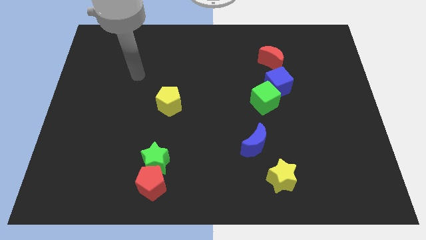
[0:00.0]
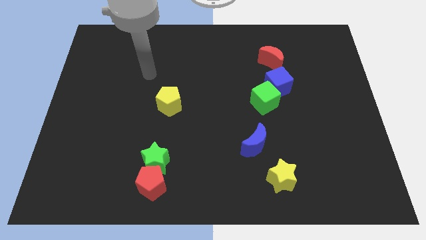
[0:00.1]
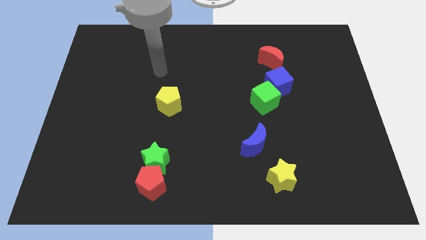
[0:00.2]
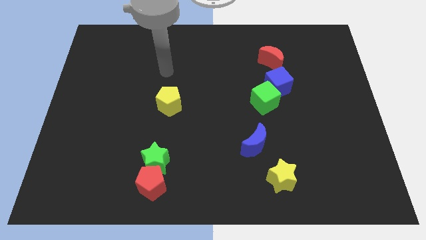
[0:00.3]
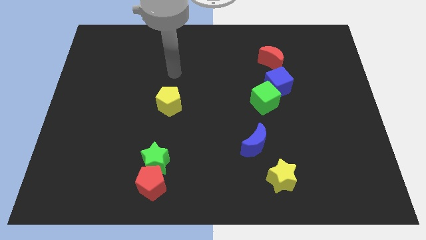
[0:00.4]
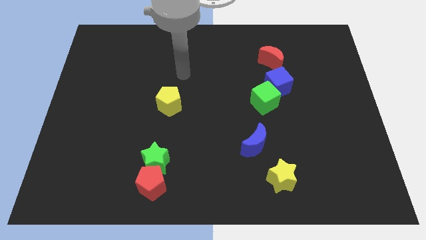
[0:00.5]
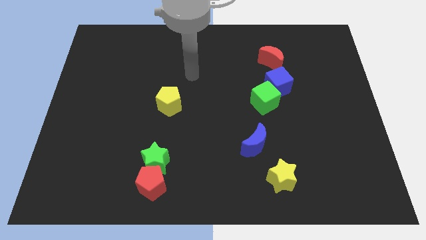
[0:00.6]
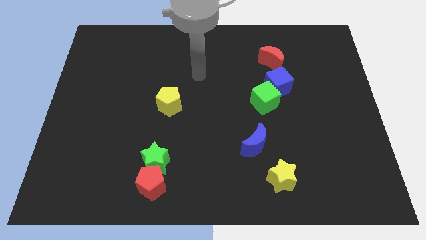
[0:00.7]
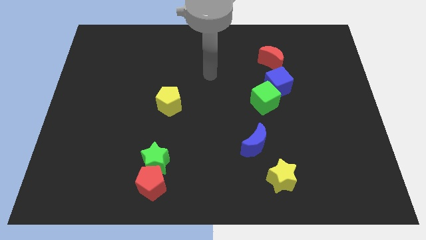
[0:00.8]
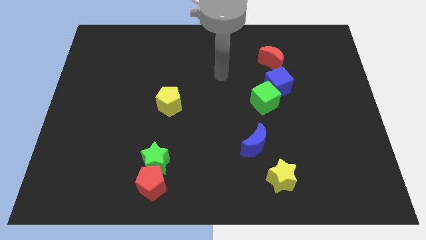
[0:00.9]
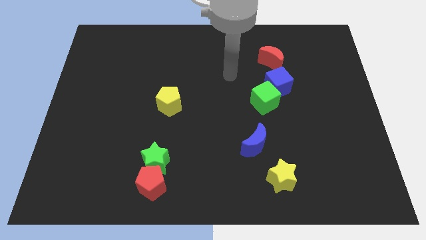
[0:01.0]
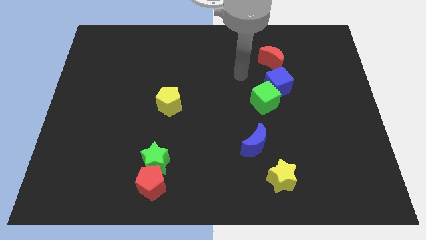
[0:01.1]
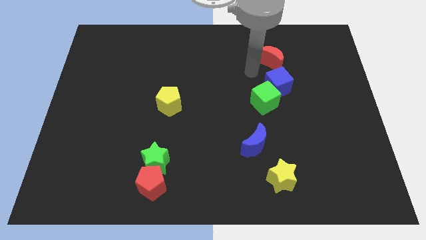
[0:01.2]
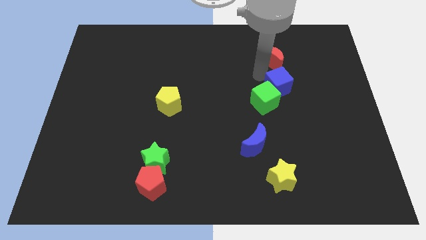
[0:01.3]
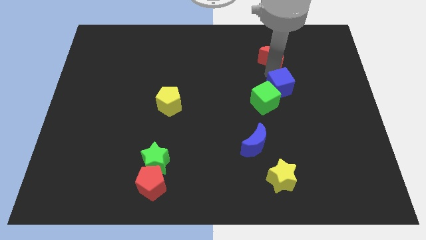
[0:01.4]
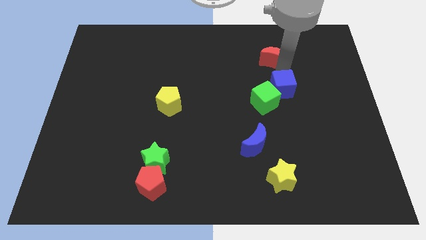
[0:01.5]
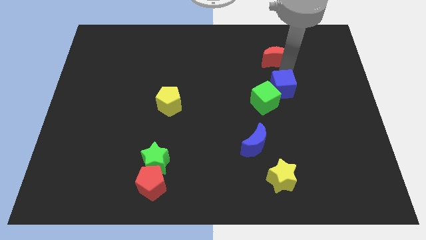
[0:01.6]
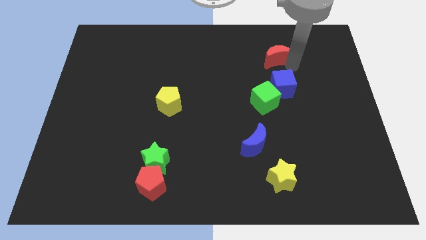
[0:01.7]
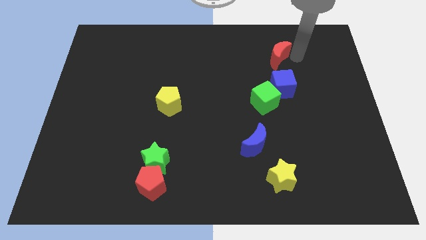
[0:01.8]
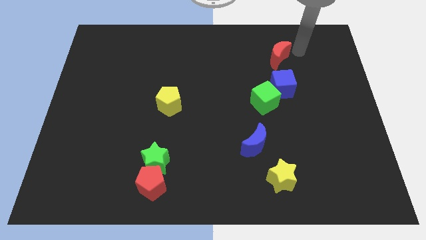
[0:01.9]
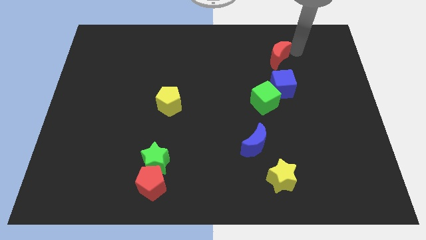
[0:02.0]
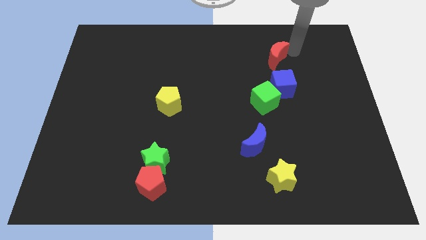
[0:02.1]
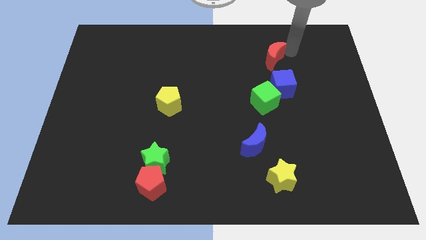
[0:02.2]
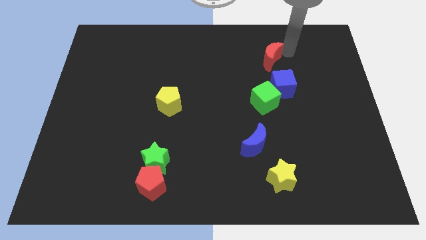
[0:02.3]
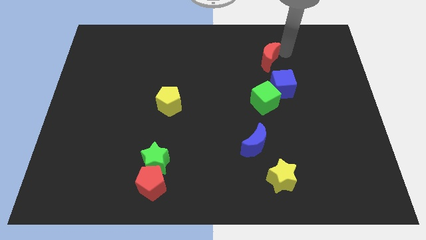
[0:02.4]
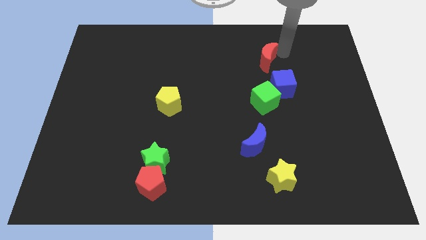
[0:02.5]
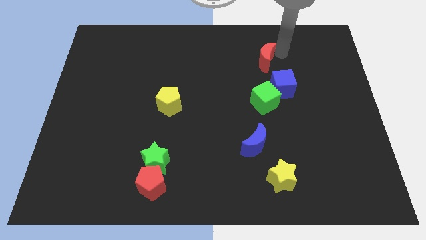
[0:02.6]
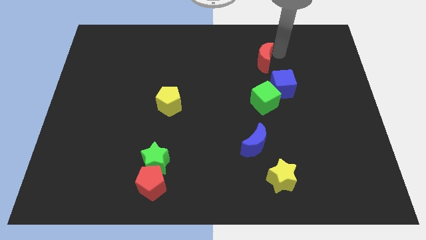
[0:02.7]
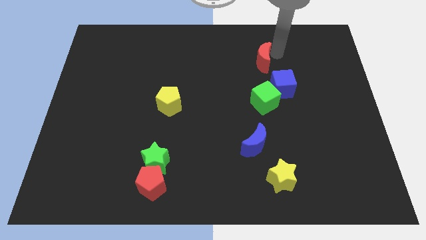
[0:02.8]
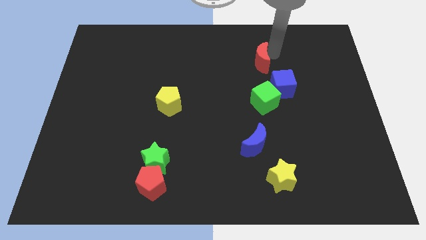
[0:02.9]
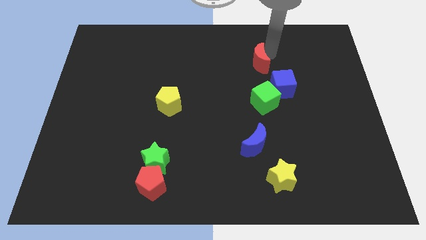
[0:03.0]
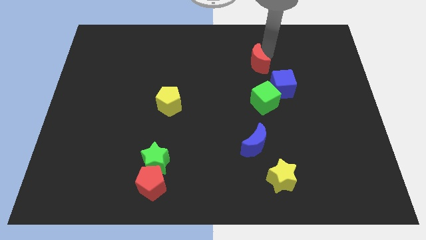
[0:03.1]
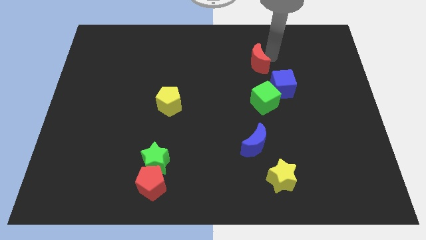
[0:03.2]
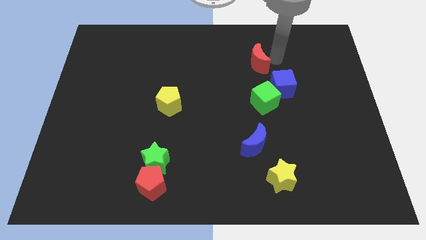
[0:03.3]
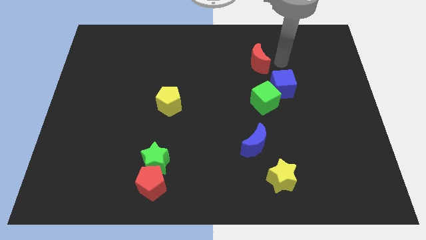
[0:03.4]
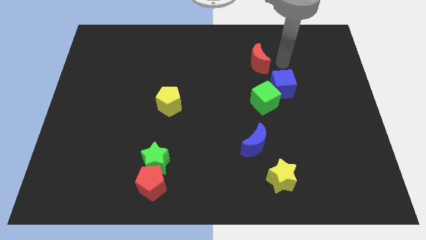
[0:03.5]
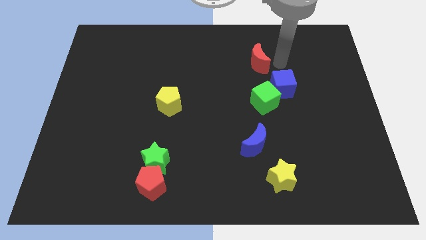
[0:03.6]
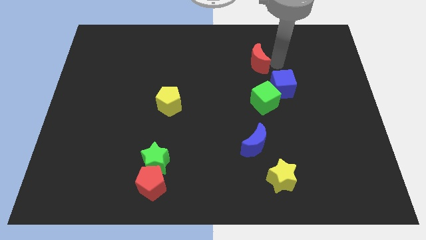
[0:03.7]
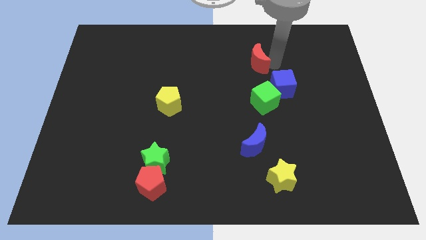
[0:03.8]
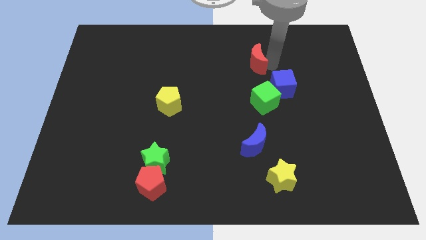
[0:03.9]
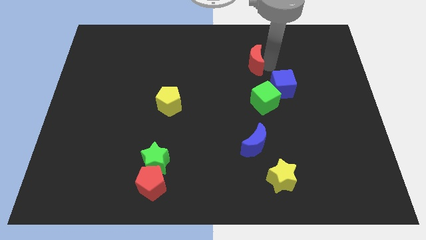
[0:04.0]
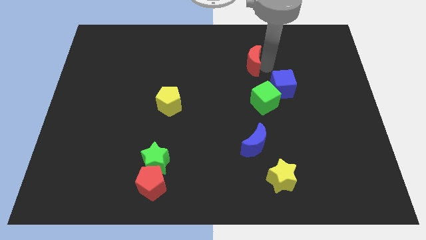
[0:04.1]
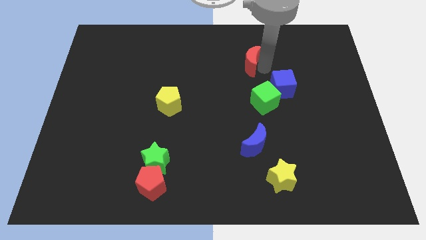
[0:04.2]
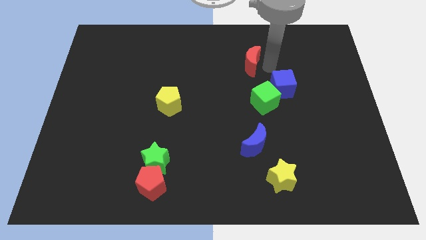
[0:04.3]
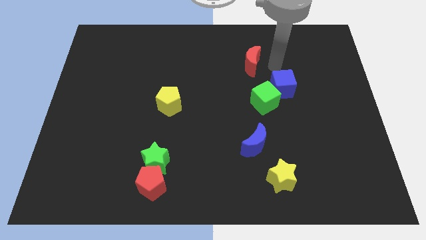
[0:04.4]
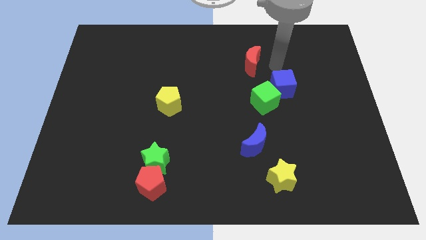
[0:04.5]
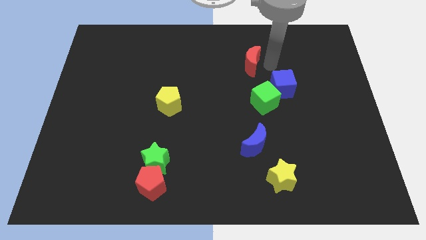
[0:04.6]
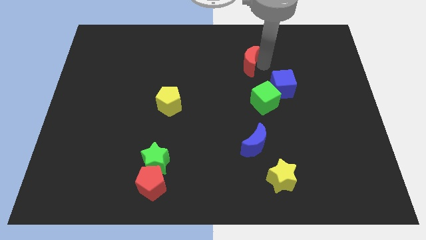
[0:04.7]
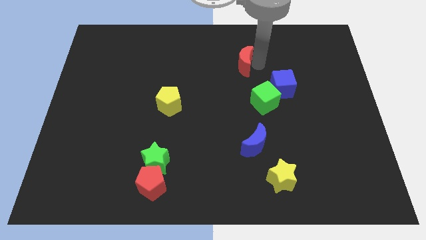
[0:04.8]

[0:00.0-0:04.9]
slightly push the red moon left

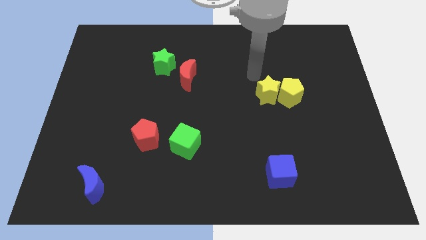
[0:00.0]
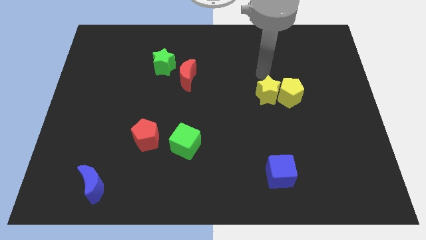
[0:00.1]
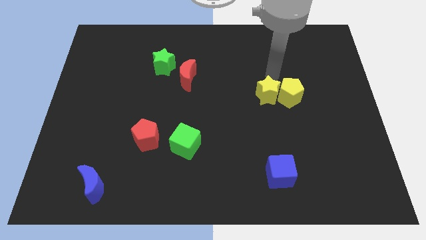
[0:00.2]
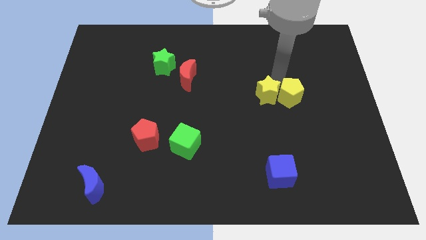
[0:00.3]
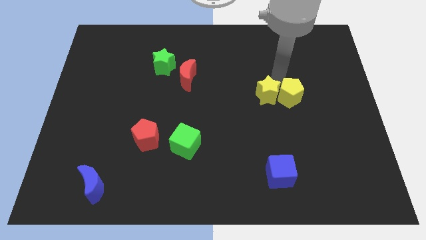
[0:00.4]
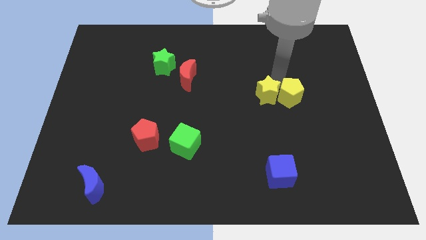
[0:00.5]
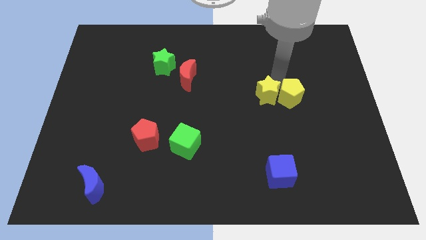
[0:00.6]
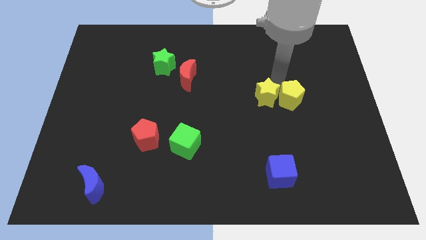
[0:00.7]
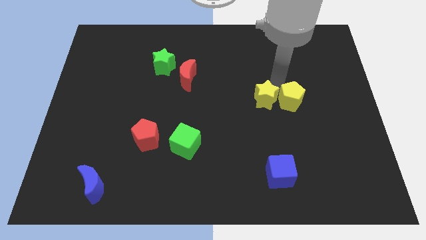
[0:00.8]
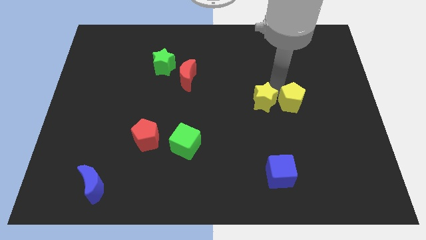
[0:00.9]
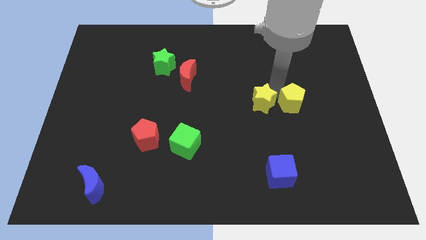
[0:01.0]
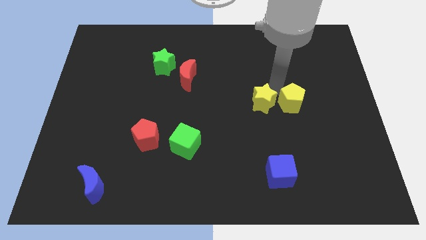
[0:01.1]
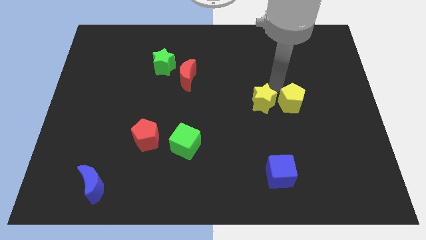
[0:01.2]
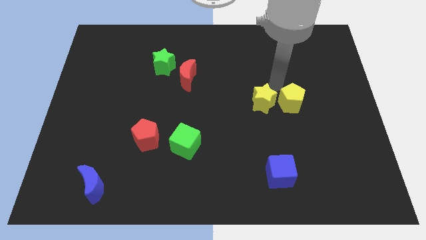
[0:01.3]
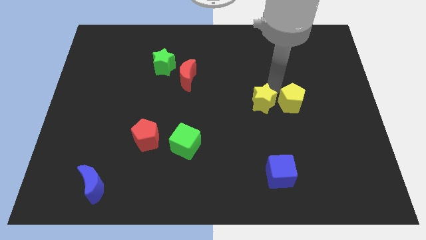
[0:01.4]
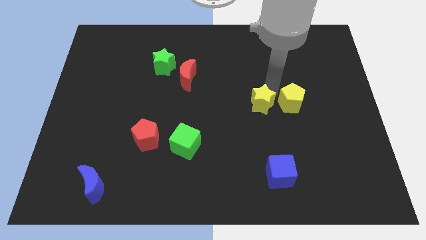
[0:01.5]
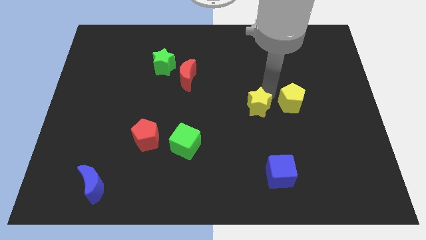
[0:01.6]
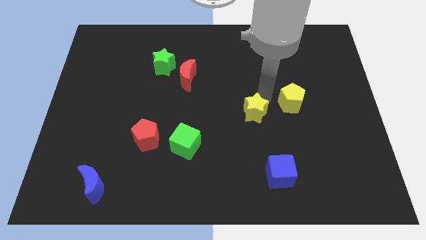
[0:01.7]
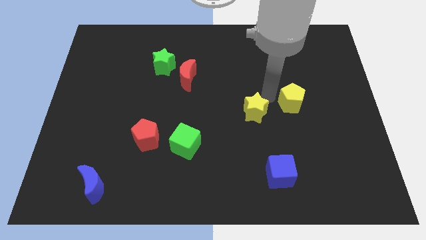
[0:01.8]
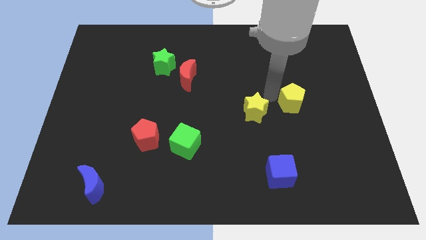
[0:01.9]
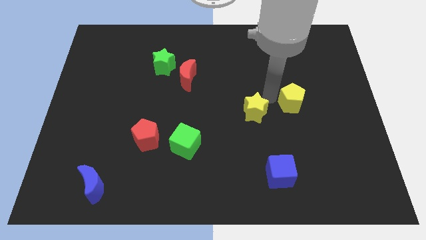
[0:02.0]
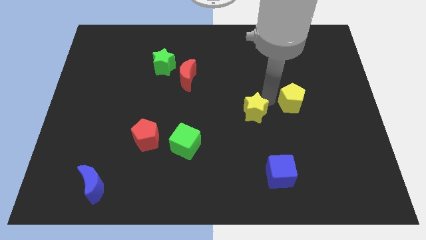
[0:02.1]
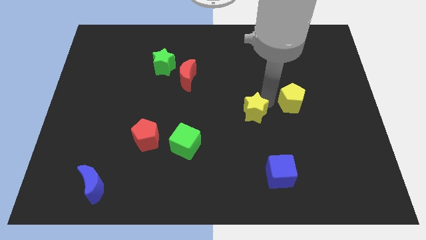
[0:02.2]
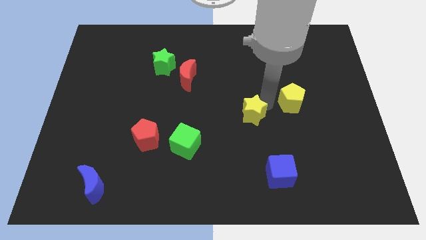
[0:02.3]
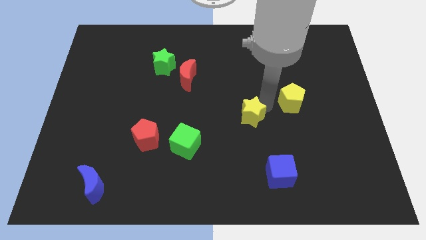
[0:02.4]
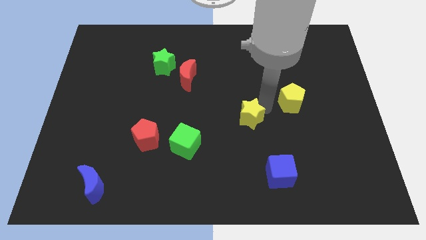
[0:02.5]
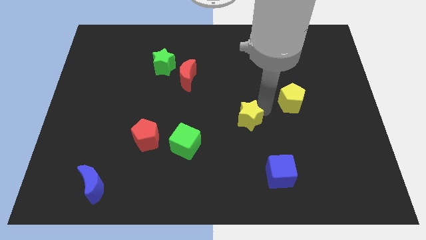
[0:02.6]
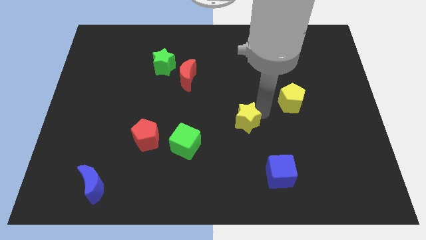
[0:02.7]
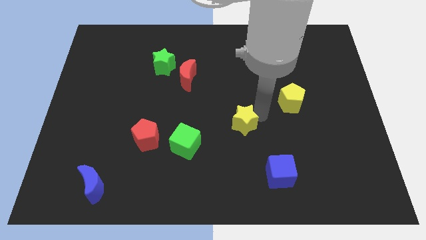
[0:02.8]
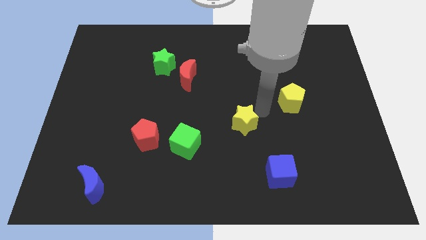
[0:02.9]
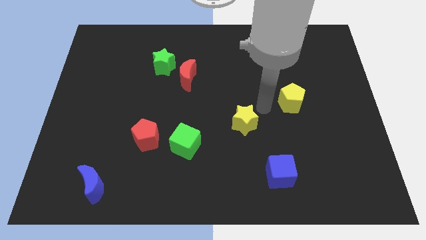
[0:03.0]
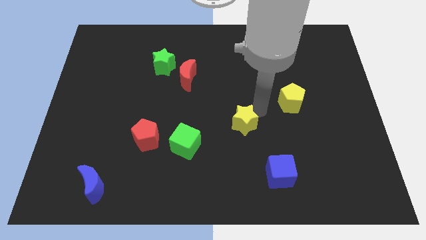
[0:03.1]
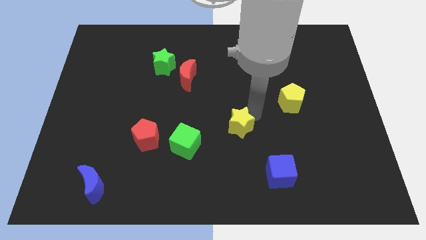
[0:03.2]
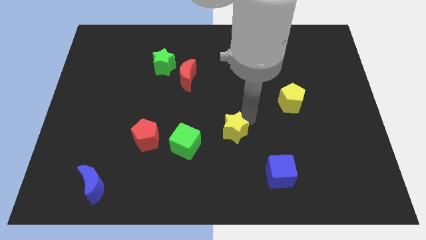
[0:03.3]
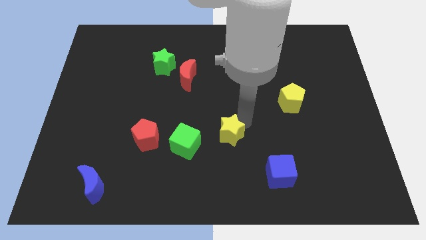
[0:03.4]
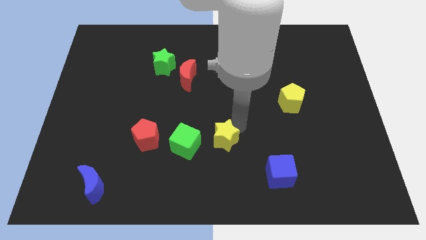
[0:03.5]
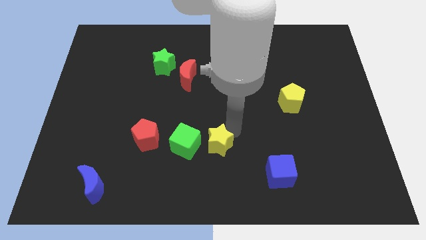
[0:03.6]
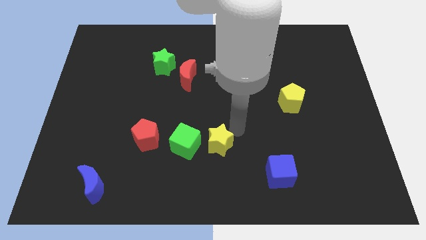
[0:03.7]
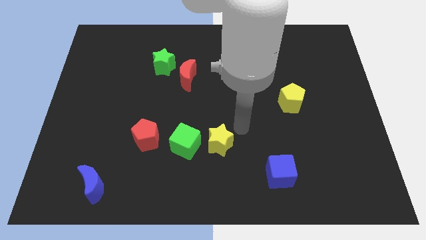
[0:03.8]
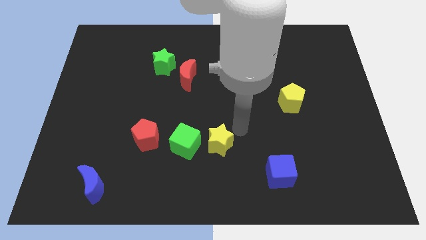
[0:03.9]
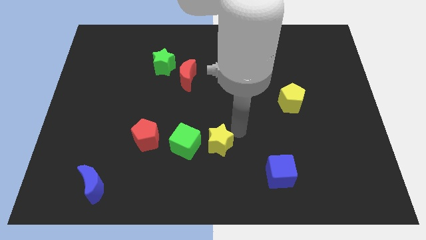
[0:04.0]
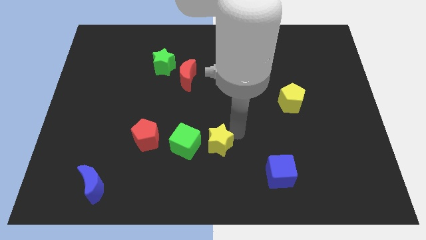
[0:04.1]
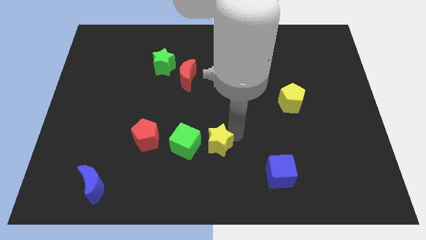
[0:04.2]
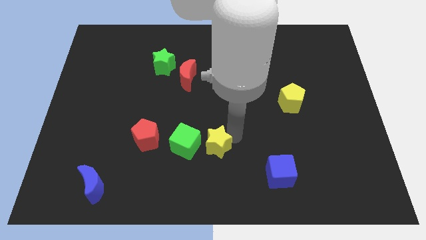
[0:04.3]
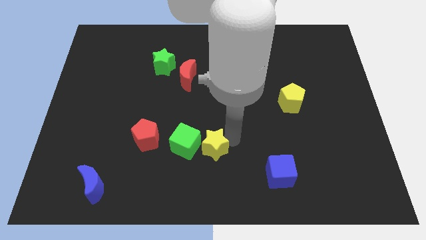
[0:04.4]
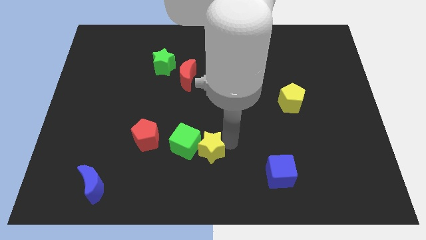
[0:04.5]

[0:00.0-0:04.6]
slide the yellow star down and to the left
